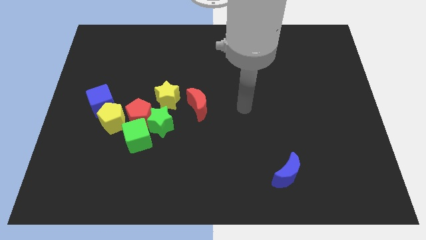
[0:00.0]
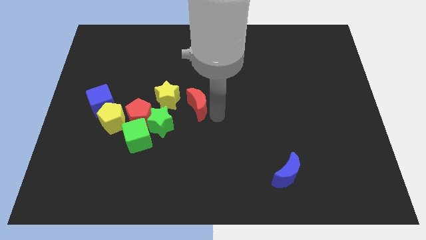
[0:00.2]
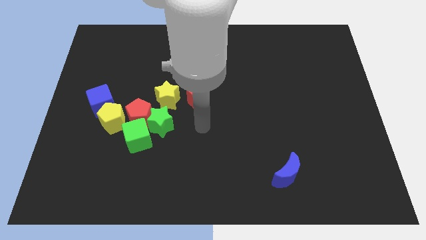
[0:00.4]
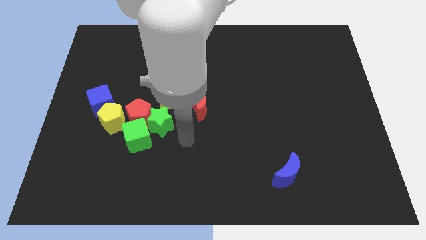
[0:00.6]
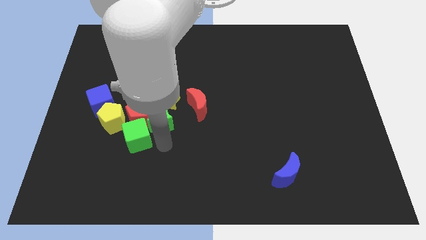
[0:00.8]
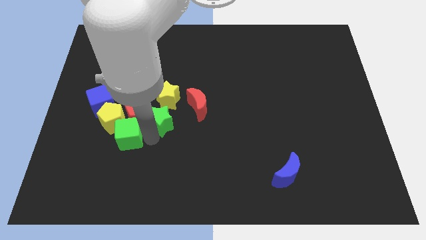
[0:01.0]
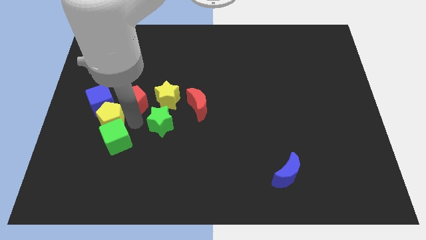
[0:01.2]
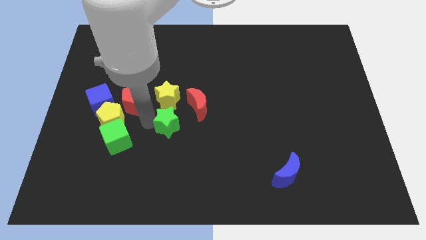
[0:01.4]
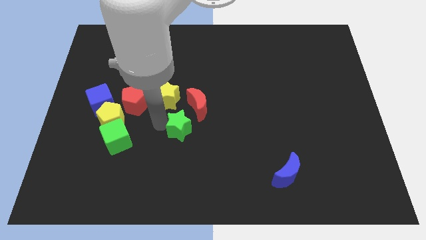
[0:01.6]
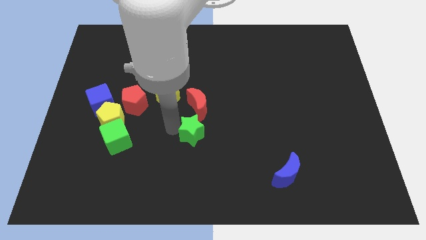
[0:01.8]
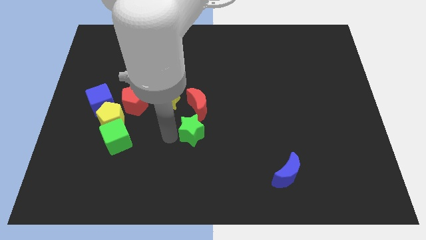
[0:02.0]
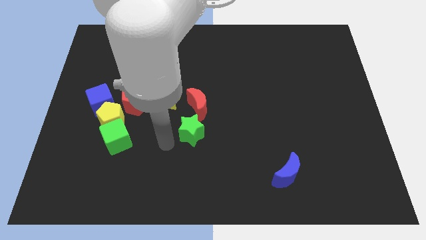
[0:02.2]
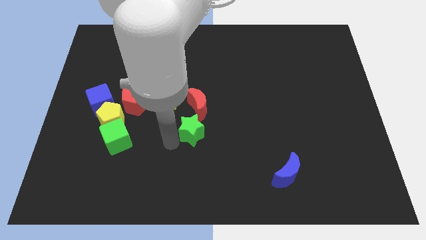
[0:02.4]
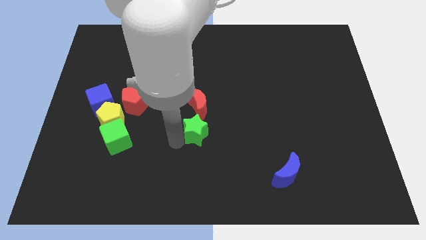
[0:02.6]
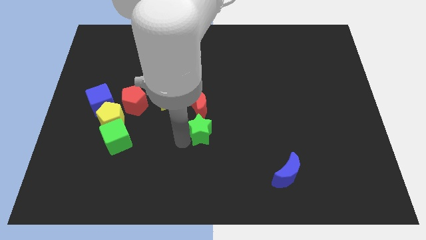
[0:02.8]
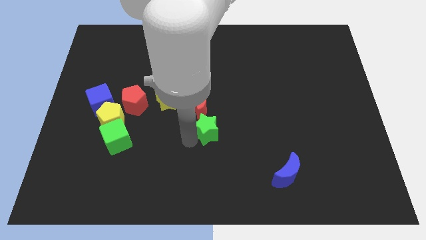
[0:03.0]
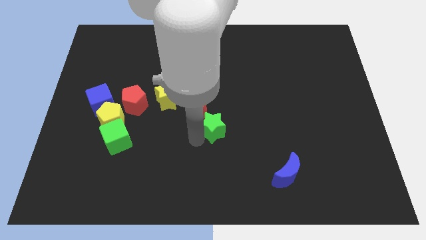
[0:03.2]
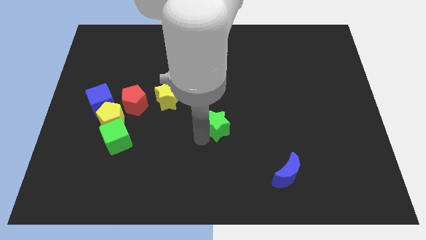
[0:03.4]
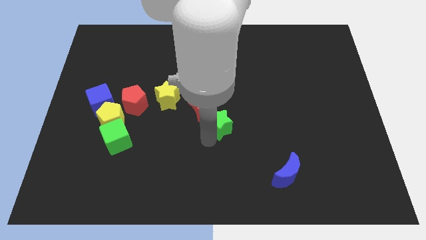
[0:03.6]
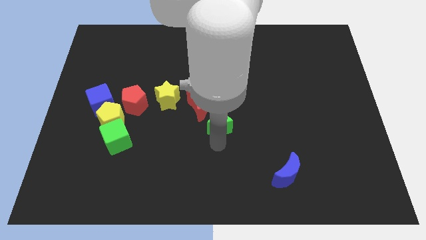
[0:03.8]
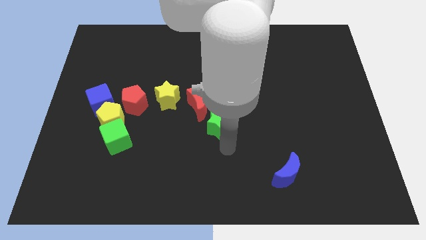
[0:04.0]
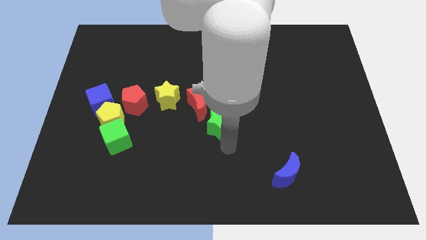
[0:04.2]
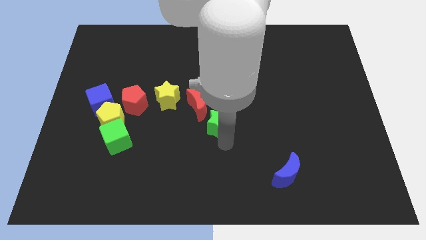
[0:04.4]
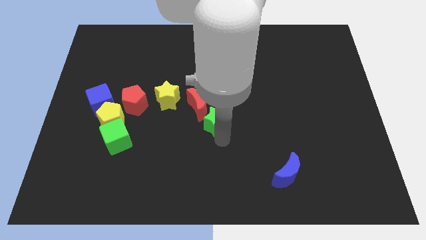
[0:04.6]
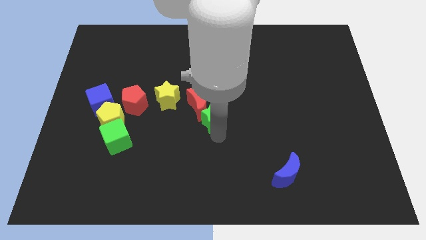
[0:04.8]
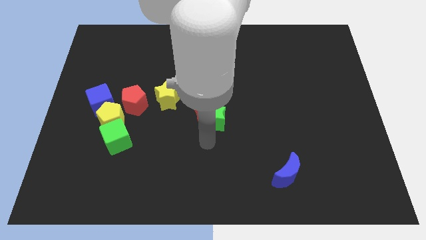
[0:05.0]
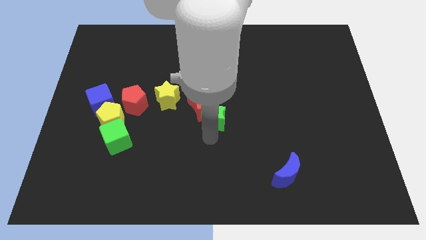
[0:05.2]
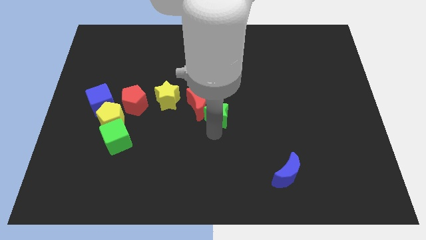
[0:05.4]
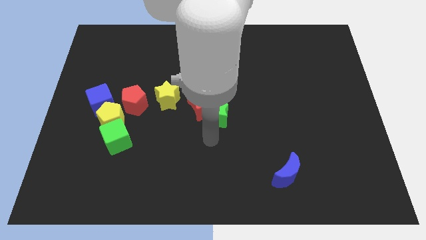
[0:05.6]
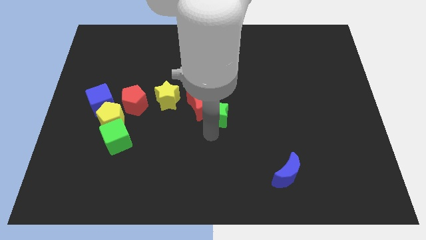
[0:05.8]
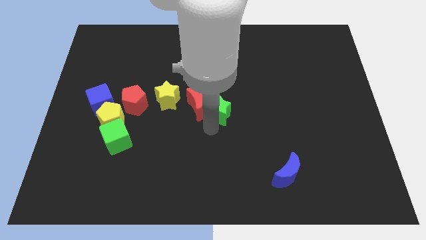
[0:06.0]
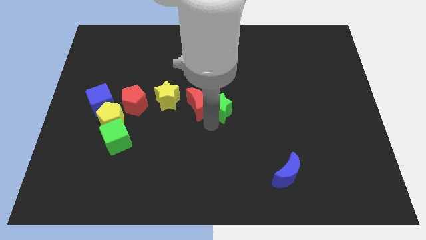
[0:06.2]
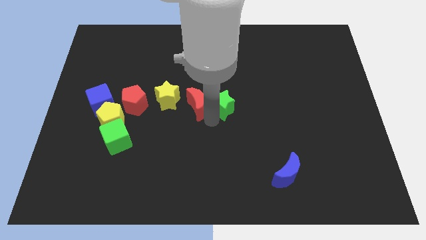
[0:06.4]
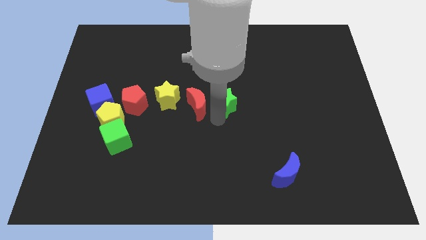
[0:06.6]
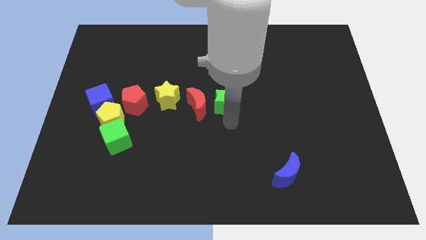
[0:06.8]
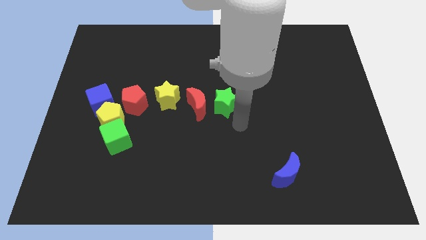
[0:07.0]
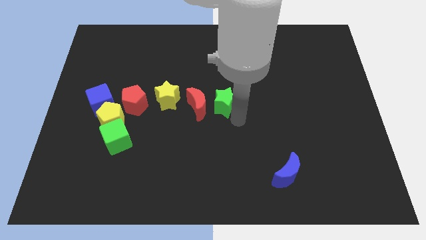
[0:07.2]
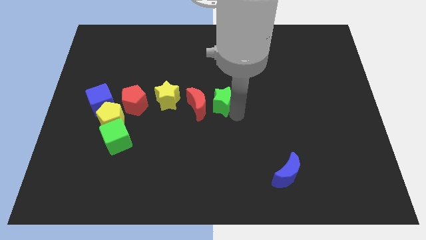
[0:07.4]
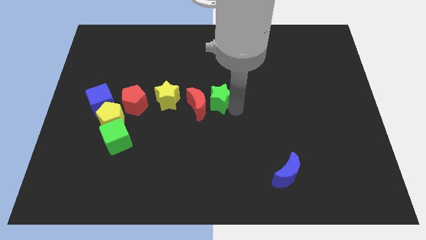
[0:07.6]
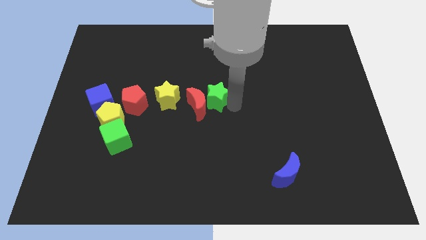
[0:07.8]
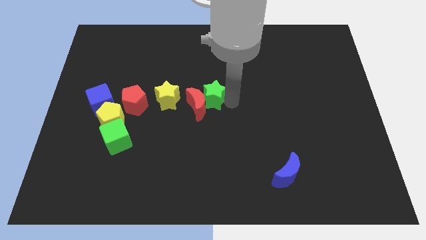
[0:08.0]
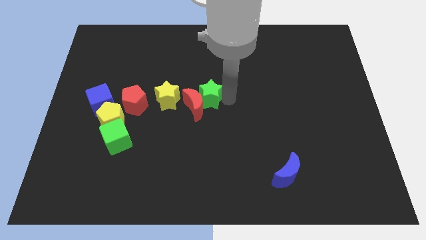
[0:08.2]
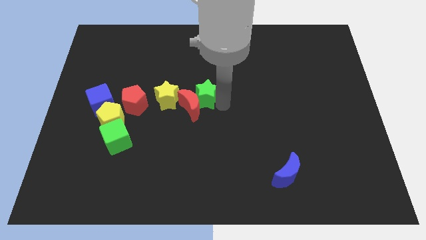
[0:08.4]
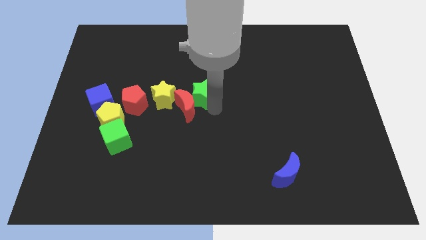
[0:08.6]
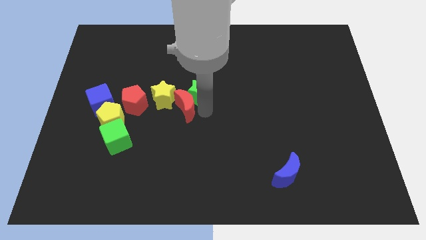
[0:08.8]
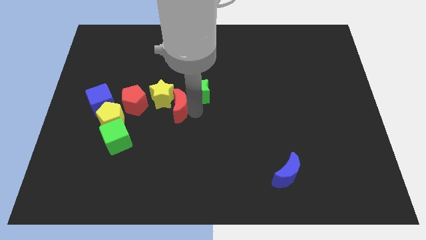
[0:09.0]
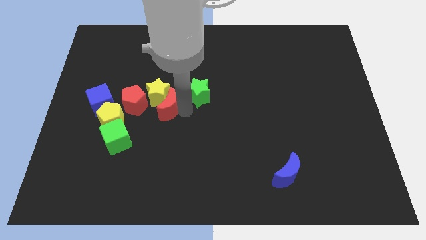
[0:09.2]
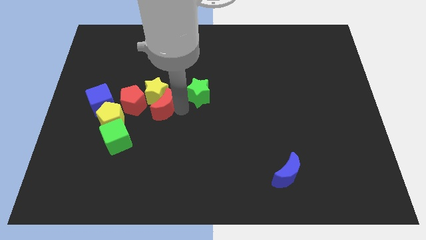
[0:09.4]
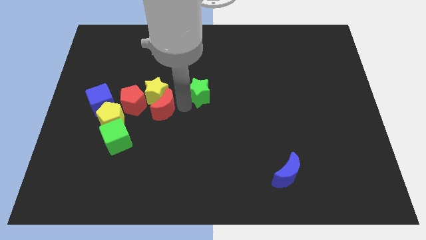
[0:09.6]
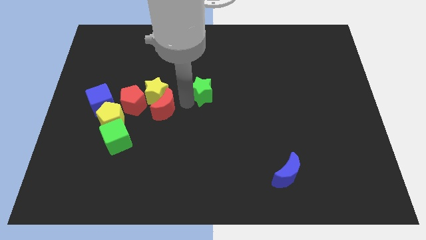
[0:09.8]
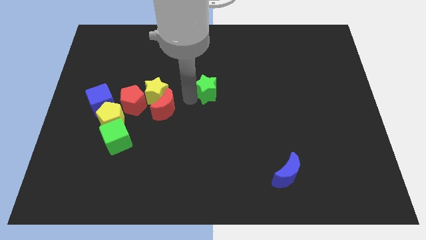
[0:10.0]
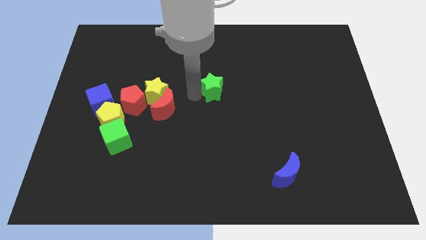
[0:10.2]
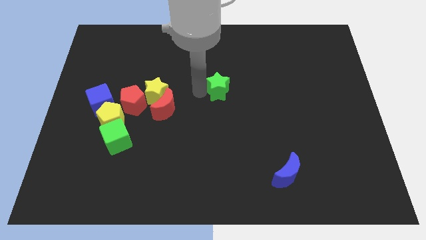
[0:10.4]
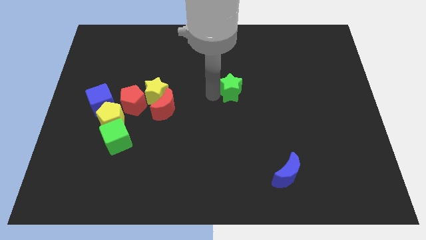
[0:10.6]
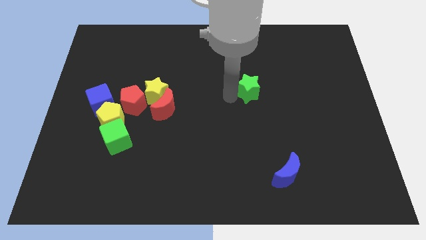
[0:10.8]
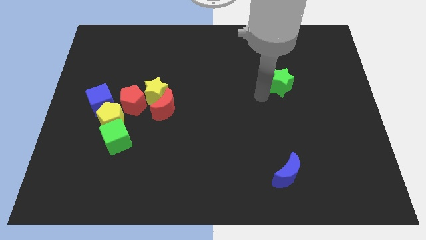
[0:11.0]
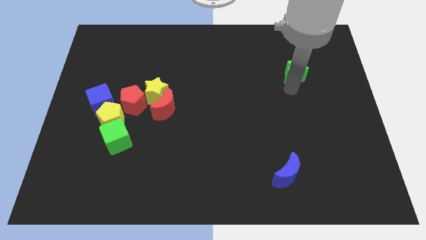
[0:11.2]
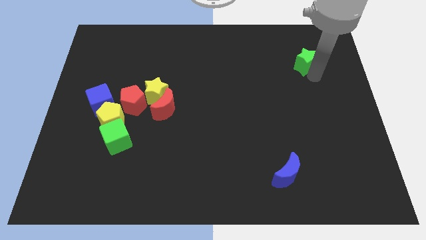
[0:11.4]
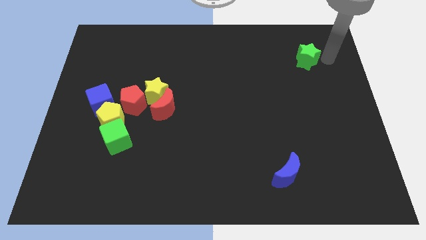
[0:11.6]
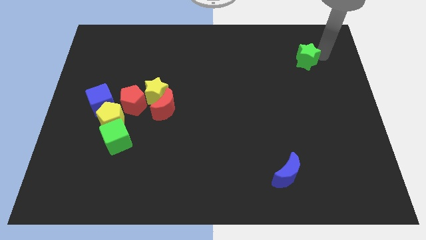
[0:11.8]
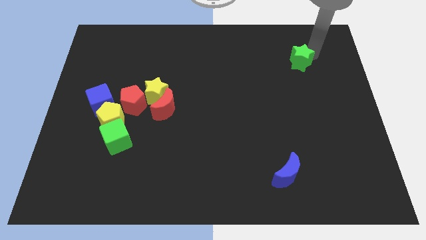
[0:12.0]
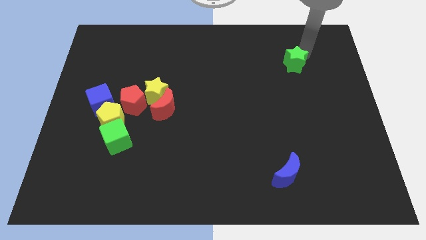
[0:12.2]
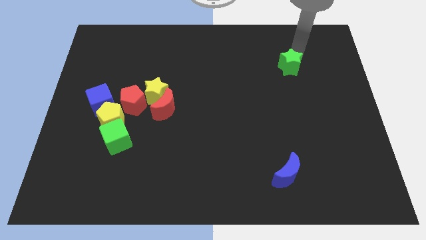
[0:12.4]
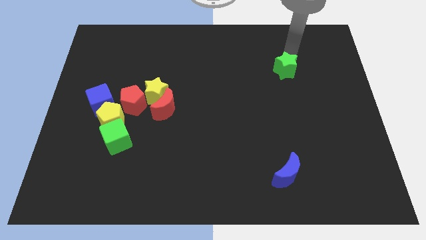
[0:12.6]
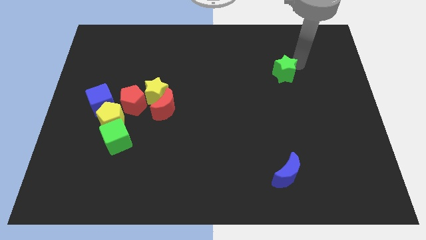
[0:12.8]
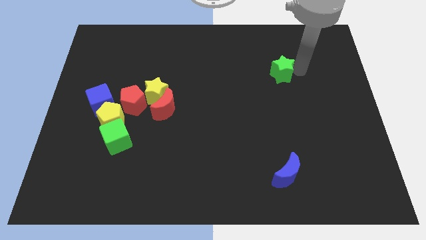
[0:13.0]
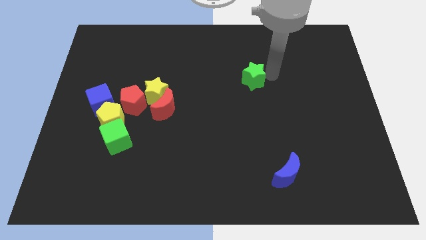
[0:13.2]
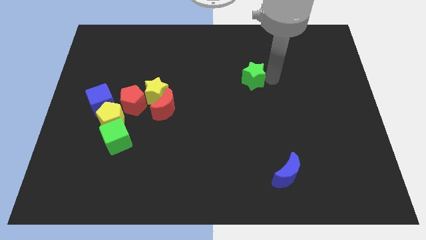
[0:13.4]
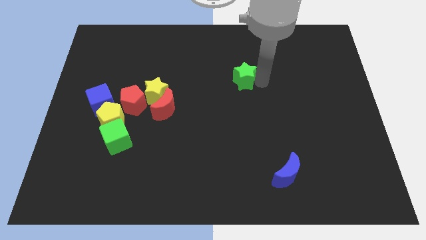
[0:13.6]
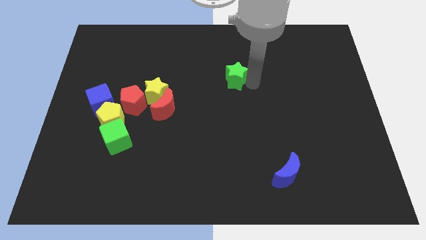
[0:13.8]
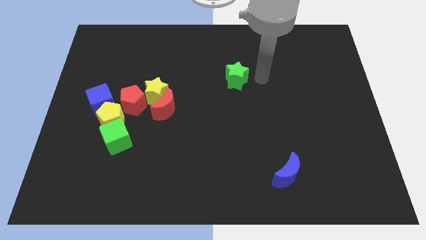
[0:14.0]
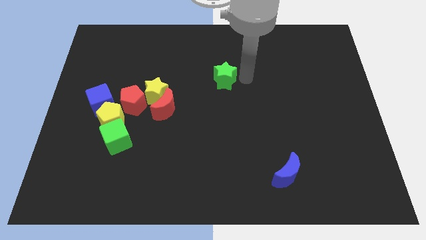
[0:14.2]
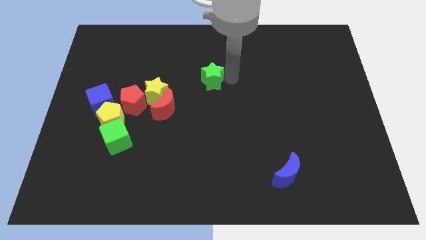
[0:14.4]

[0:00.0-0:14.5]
slightly push the green star upwards

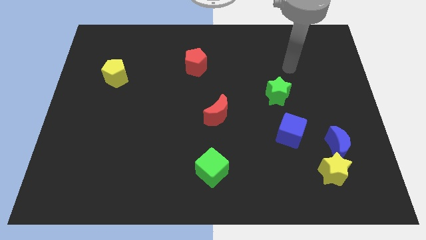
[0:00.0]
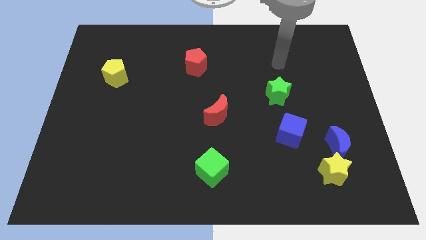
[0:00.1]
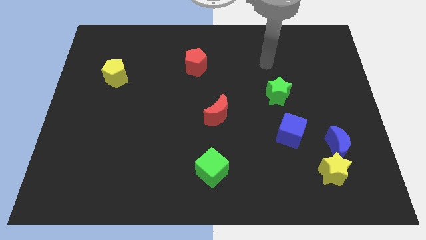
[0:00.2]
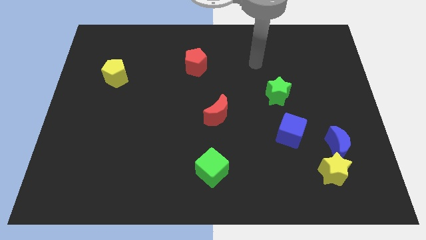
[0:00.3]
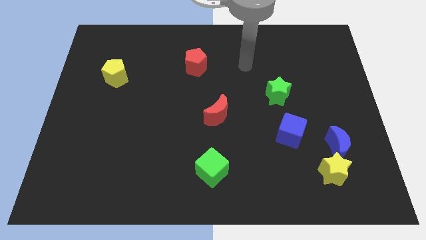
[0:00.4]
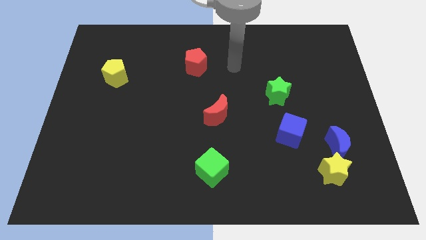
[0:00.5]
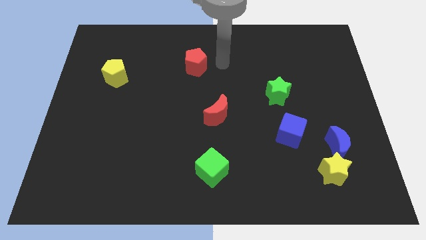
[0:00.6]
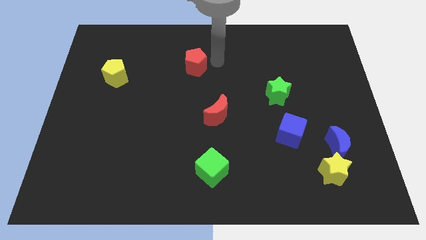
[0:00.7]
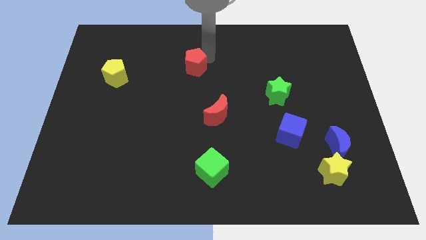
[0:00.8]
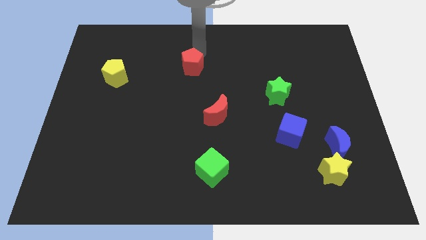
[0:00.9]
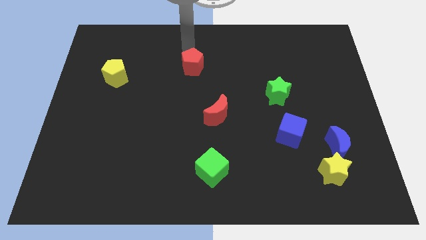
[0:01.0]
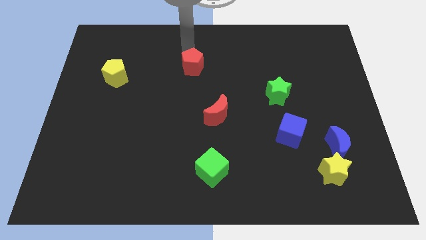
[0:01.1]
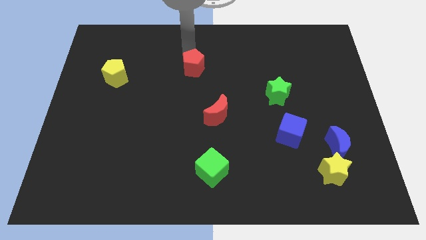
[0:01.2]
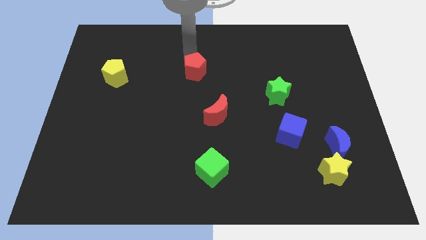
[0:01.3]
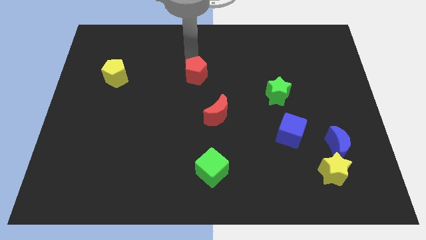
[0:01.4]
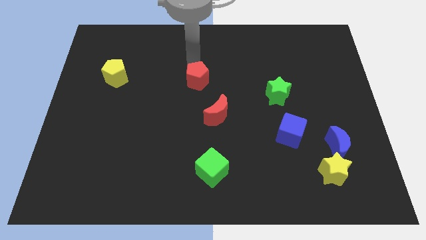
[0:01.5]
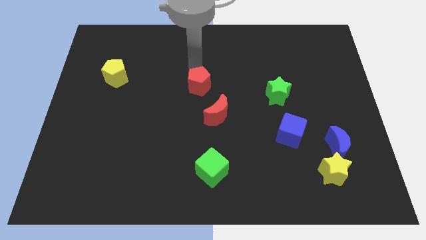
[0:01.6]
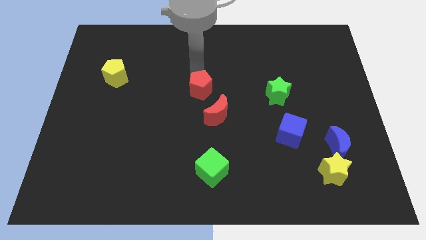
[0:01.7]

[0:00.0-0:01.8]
slightly slide the red pentagon down
